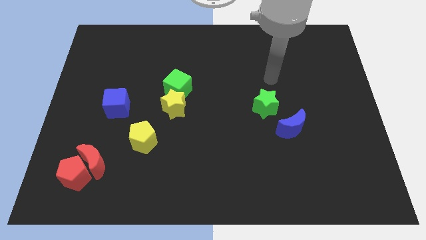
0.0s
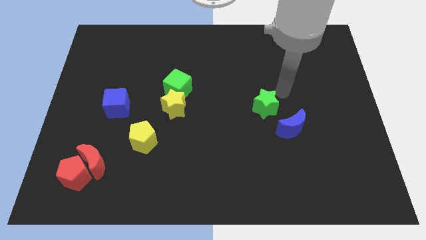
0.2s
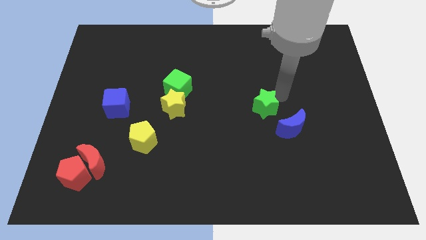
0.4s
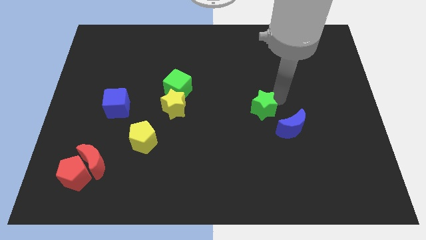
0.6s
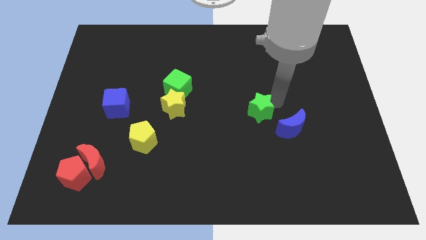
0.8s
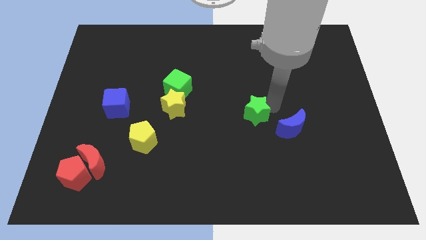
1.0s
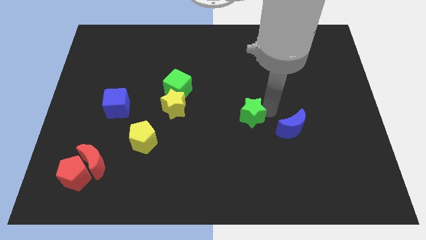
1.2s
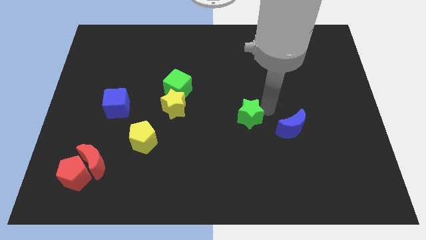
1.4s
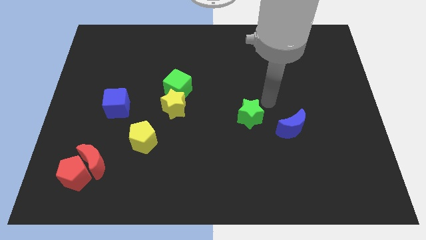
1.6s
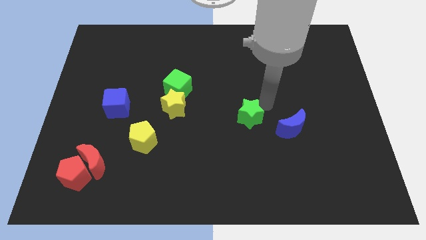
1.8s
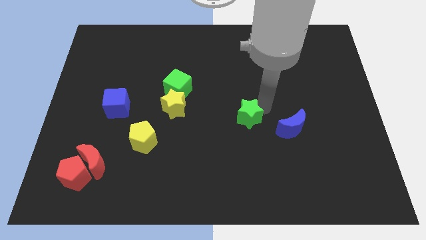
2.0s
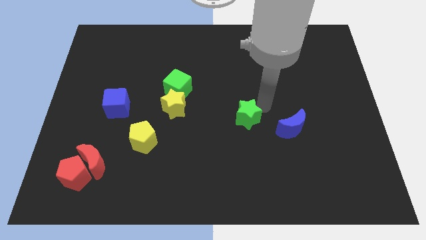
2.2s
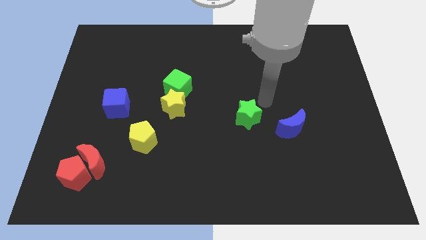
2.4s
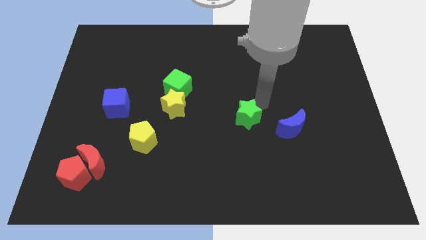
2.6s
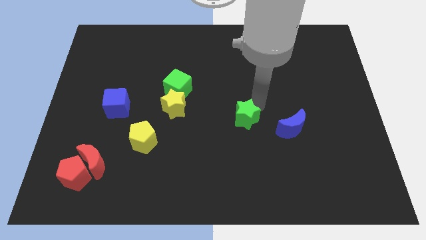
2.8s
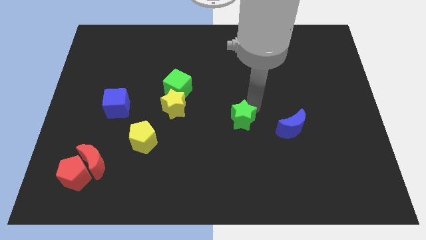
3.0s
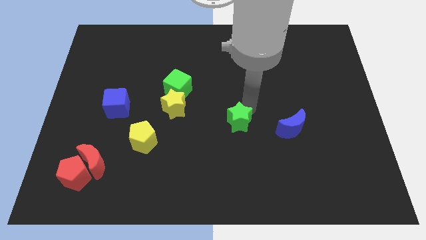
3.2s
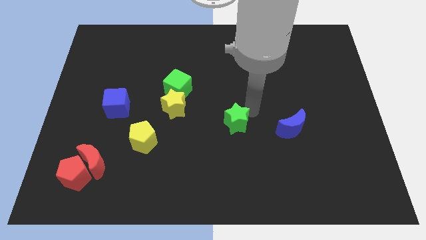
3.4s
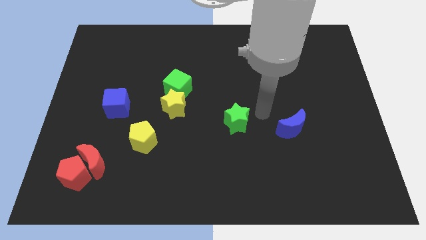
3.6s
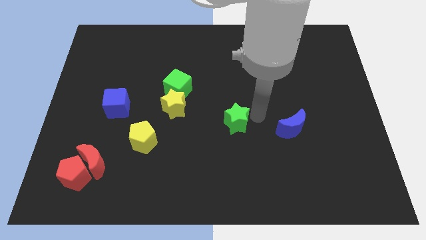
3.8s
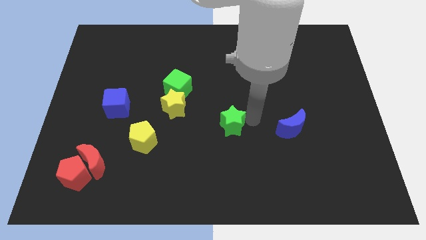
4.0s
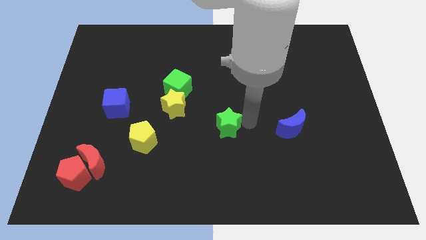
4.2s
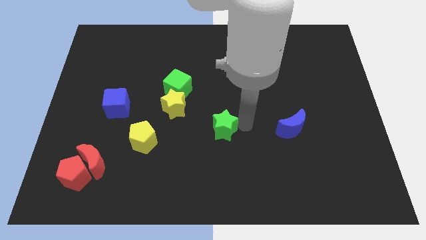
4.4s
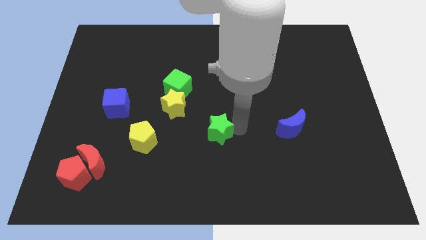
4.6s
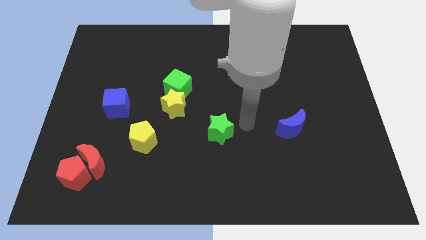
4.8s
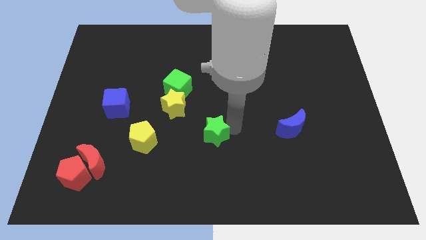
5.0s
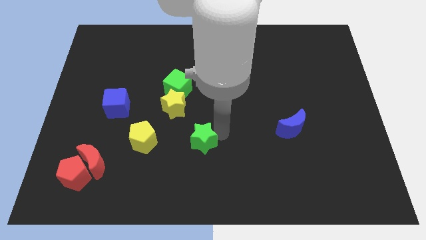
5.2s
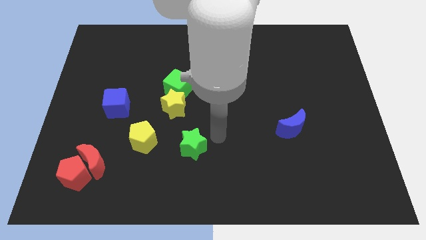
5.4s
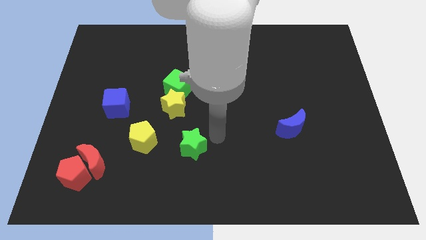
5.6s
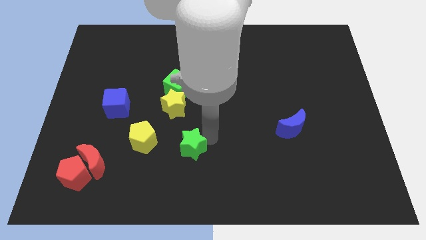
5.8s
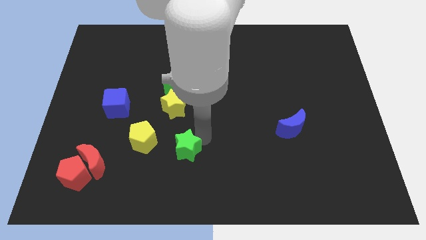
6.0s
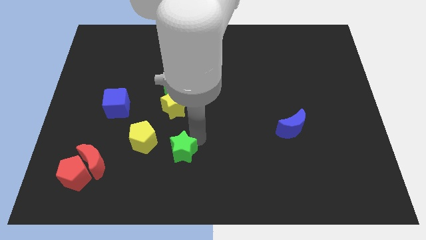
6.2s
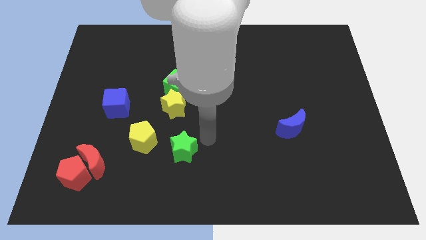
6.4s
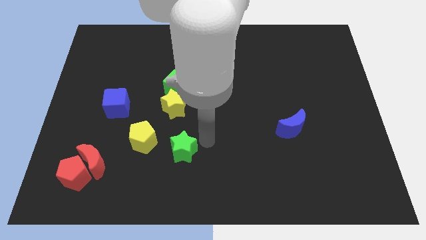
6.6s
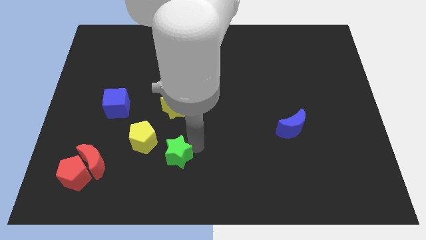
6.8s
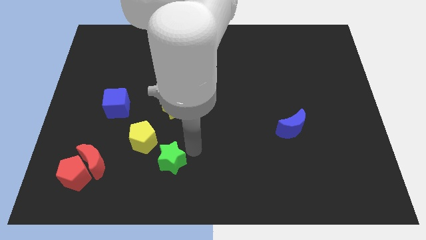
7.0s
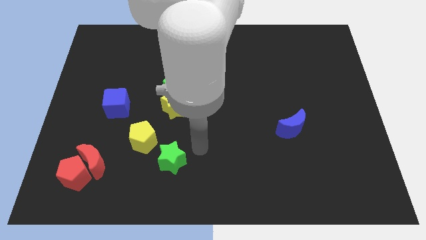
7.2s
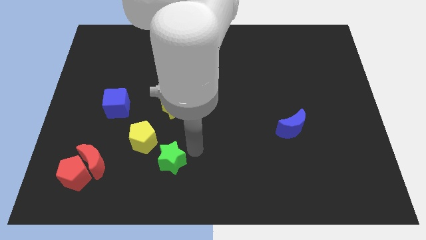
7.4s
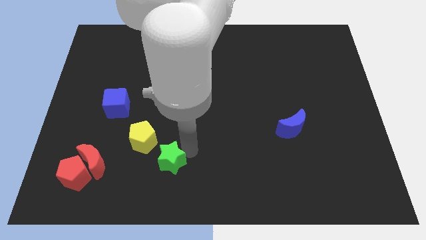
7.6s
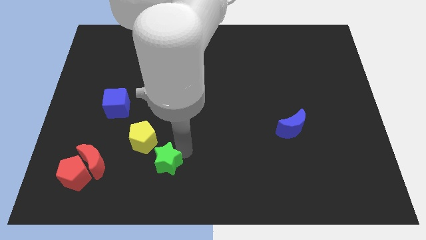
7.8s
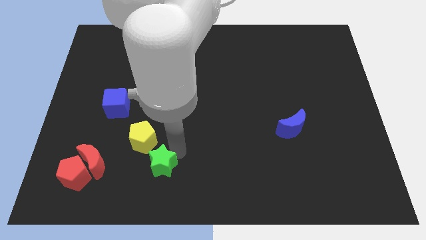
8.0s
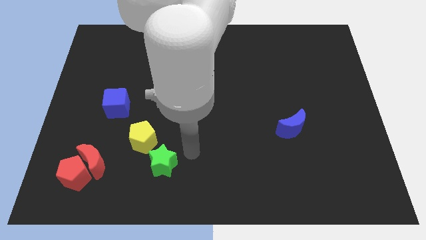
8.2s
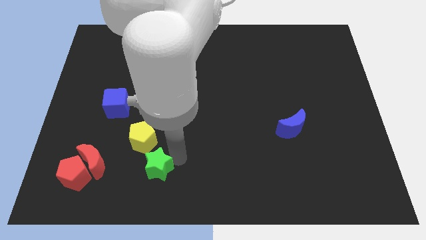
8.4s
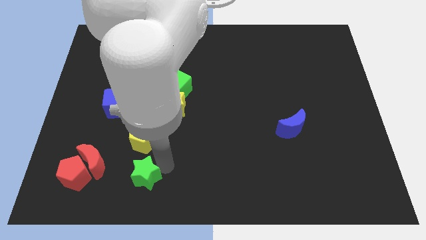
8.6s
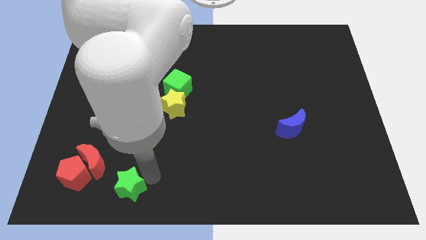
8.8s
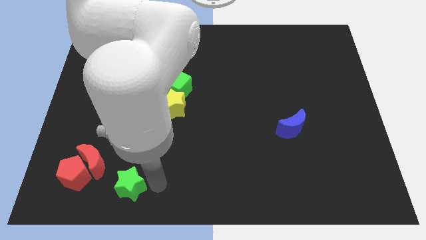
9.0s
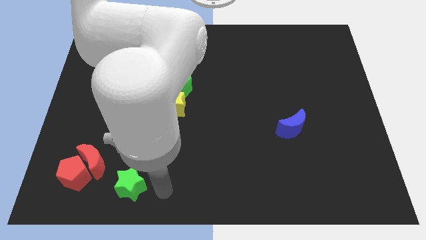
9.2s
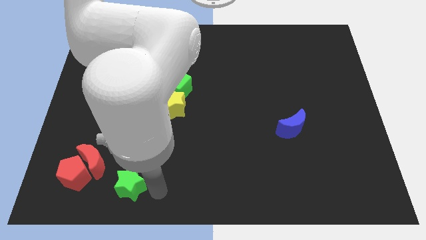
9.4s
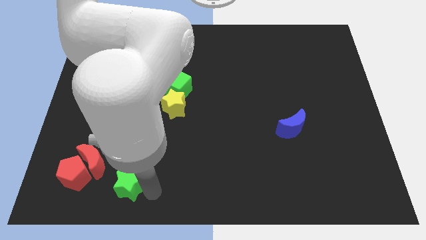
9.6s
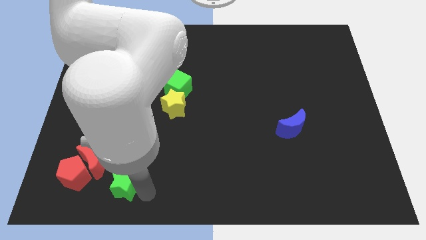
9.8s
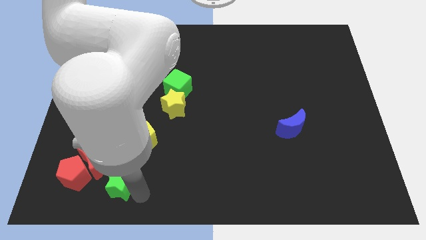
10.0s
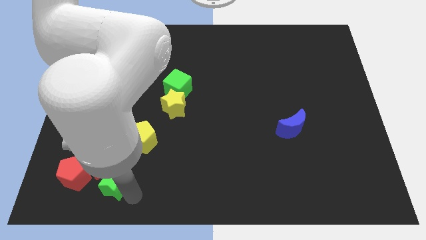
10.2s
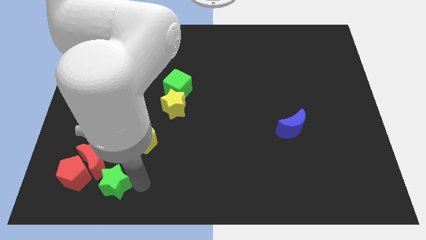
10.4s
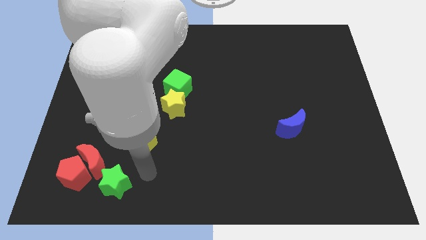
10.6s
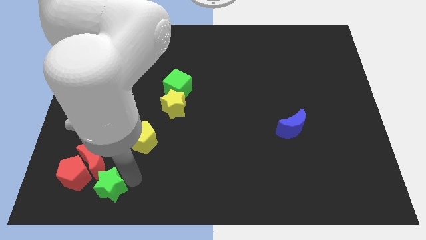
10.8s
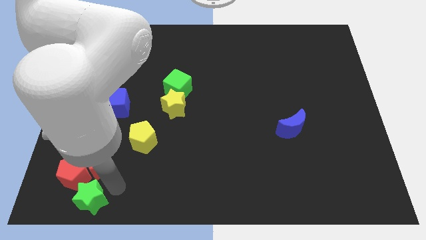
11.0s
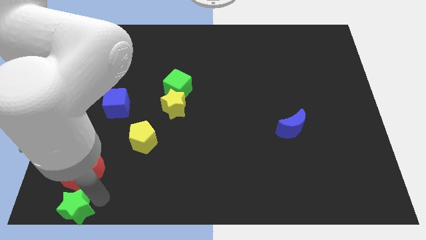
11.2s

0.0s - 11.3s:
put the green star to the bottom left

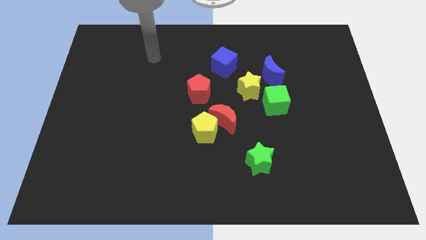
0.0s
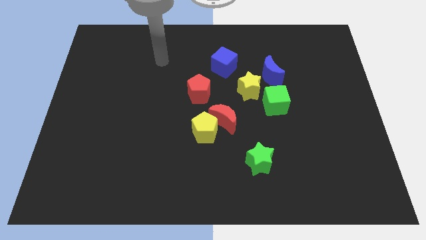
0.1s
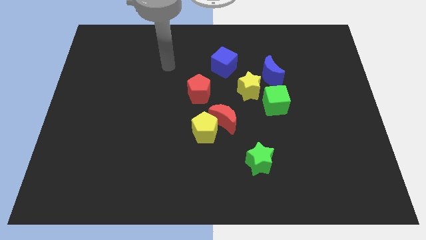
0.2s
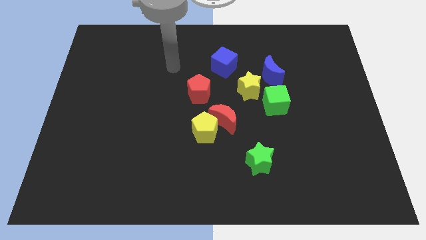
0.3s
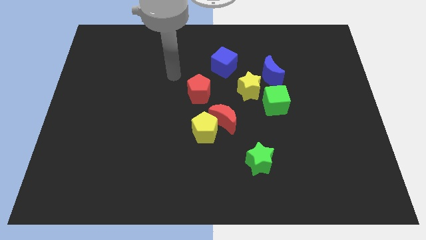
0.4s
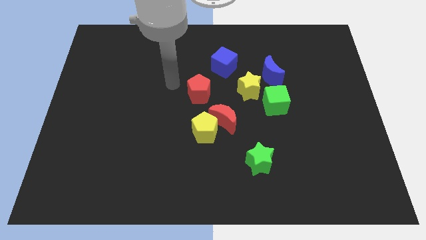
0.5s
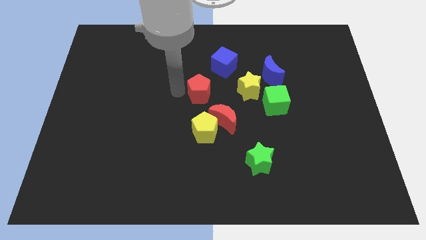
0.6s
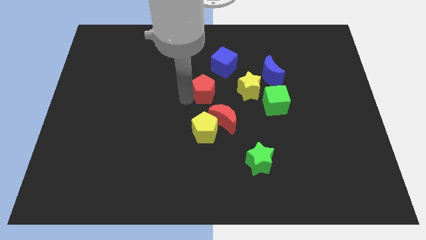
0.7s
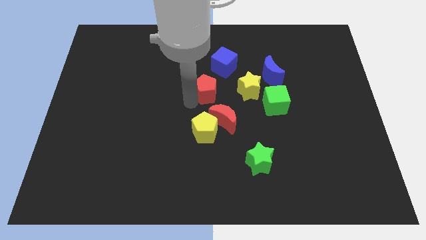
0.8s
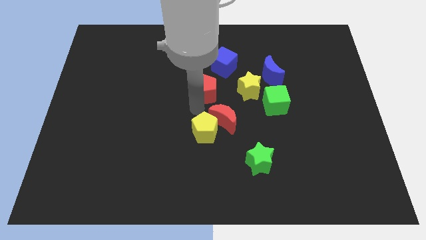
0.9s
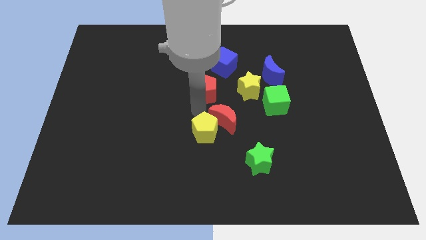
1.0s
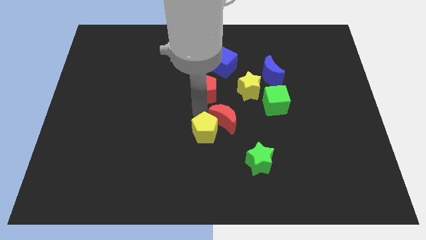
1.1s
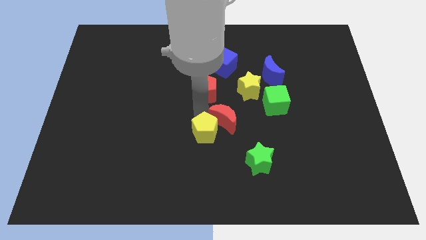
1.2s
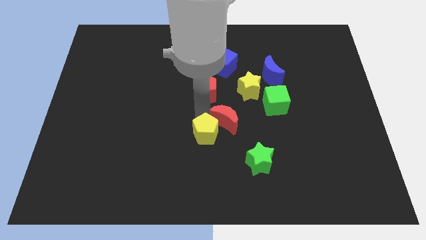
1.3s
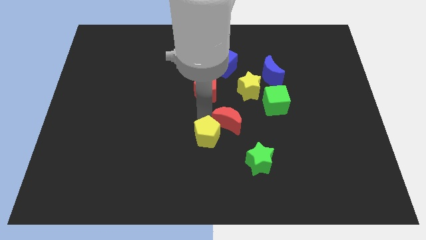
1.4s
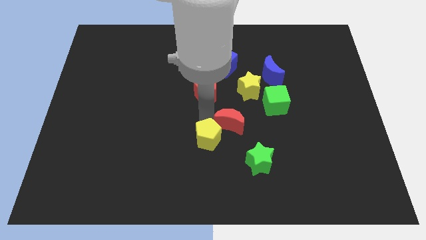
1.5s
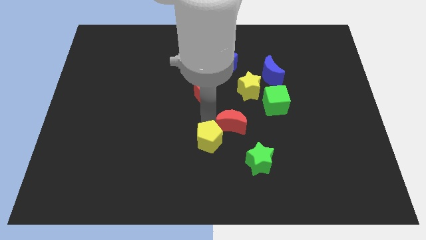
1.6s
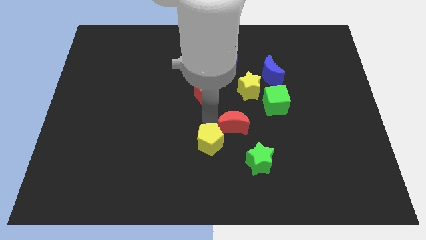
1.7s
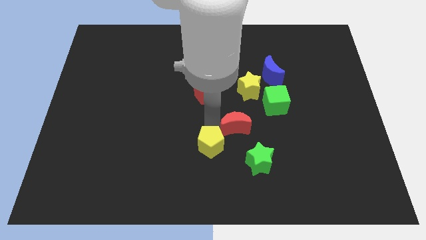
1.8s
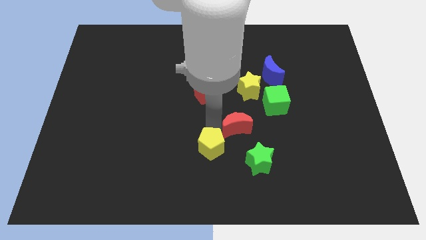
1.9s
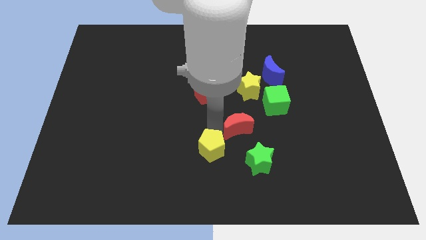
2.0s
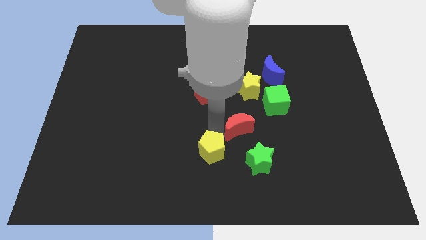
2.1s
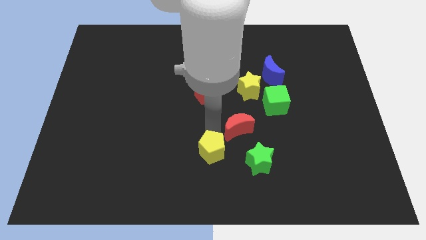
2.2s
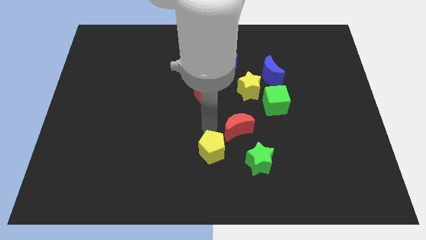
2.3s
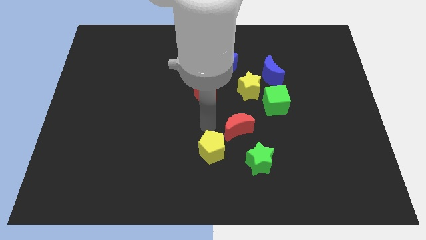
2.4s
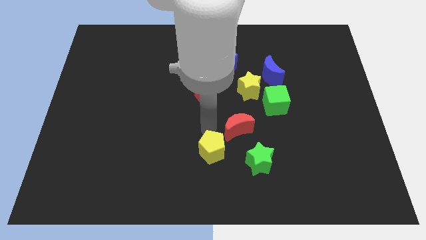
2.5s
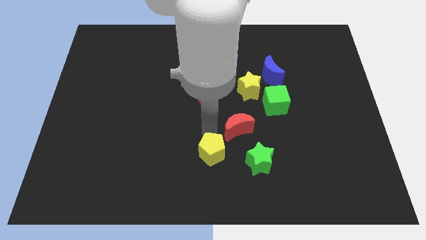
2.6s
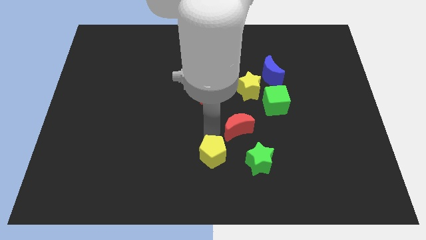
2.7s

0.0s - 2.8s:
push the yellow pentagon to the bottom side
